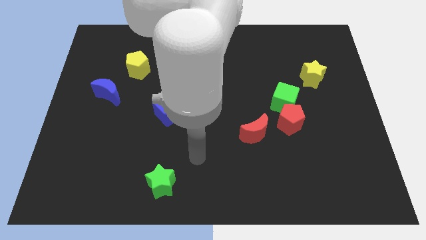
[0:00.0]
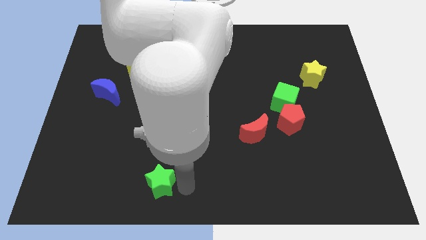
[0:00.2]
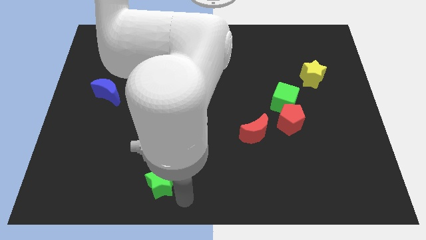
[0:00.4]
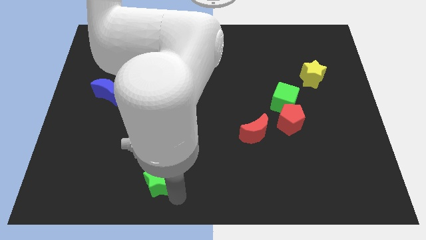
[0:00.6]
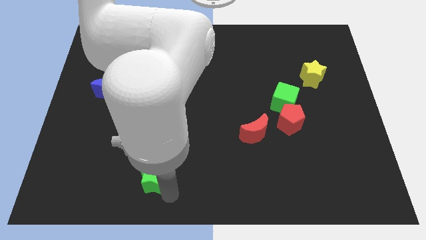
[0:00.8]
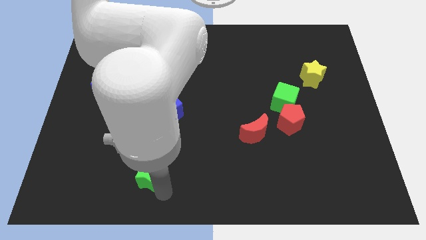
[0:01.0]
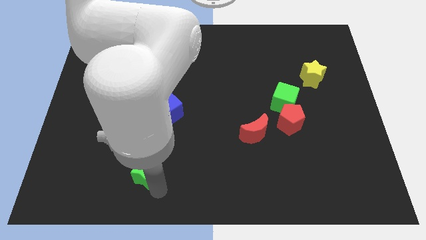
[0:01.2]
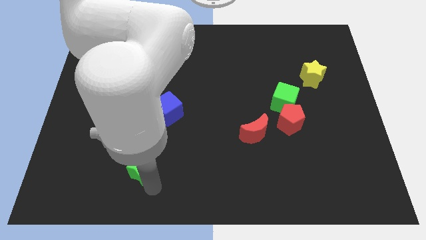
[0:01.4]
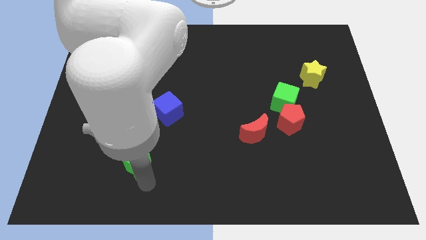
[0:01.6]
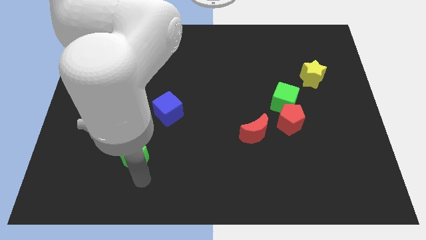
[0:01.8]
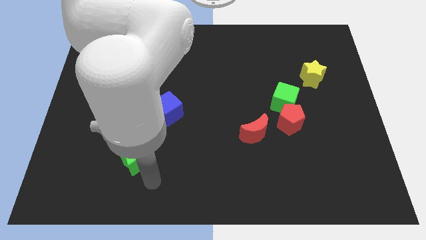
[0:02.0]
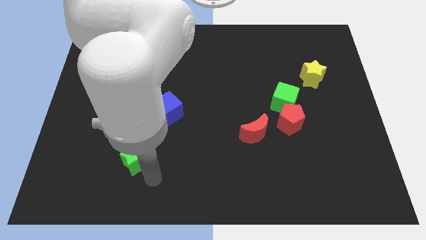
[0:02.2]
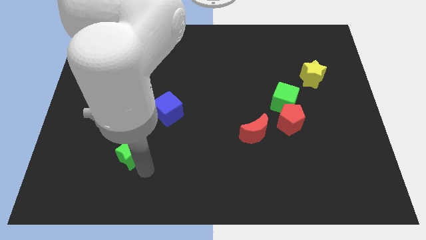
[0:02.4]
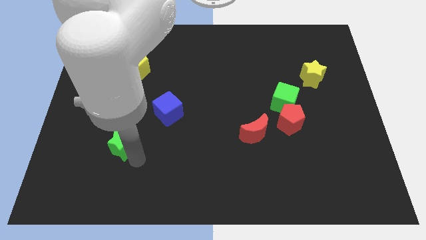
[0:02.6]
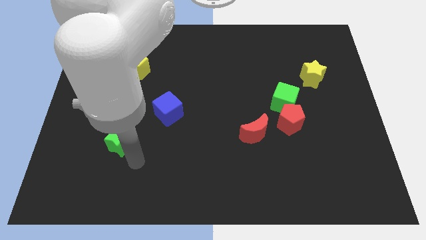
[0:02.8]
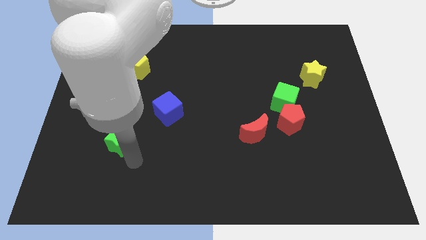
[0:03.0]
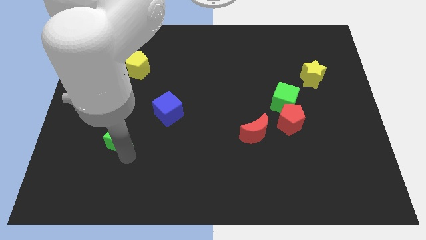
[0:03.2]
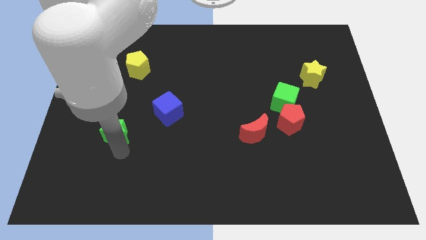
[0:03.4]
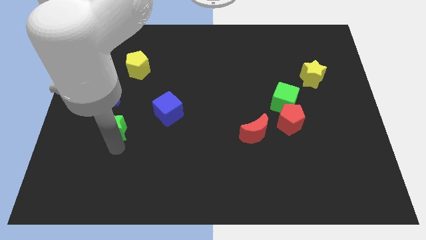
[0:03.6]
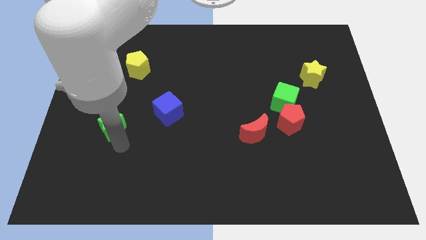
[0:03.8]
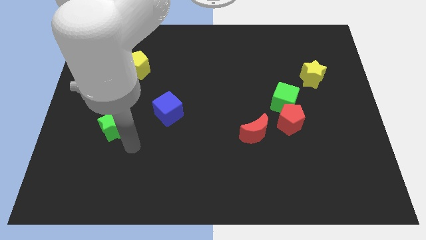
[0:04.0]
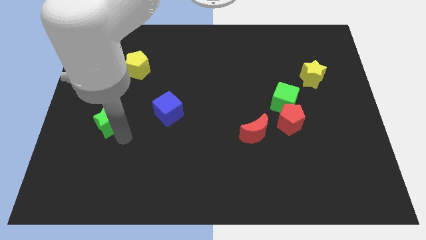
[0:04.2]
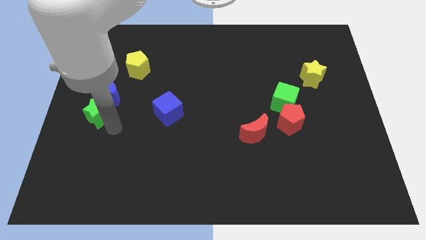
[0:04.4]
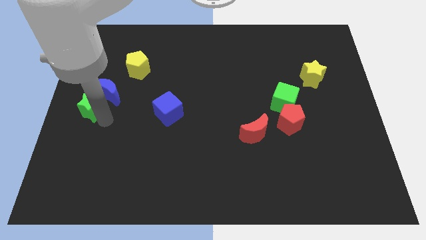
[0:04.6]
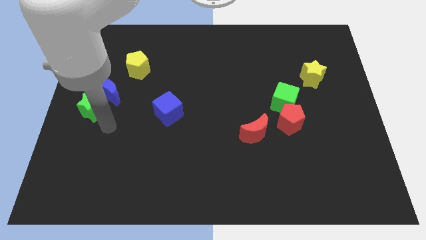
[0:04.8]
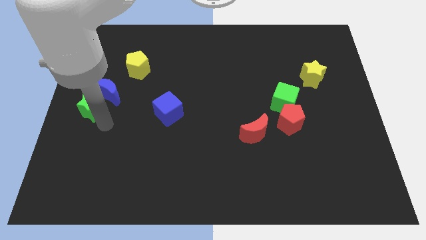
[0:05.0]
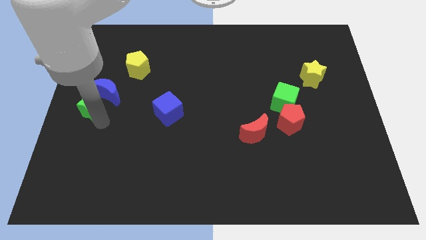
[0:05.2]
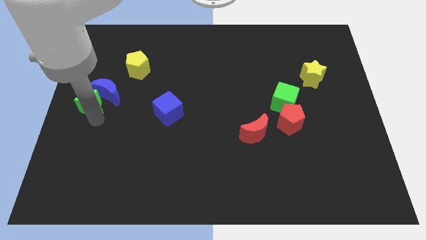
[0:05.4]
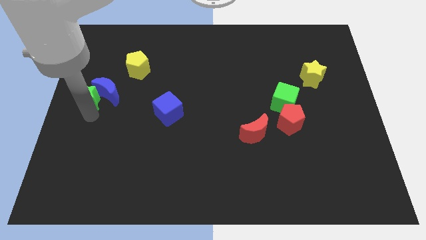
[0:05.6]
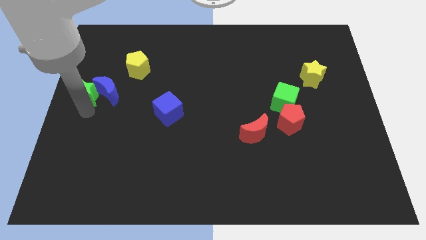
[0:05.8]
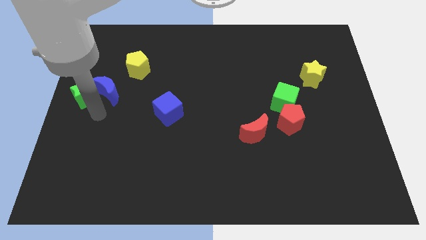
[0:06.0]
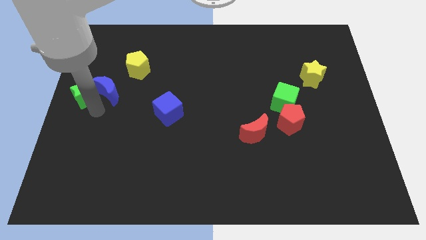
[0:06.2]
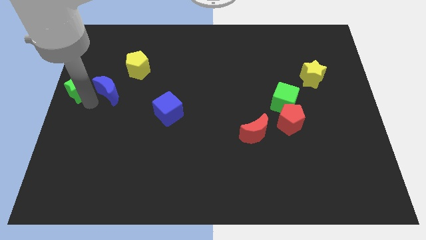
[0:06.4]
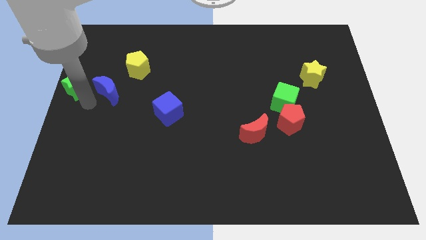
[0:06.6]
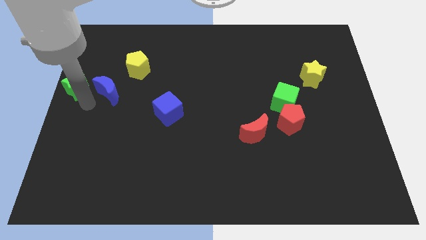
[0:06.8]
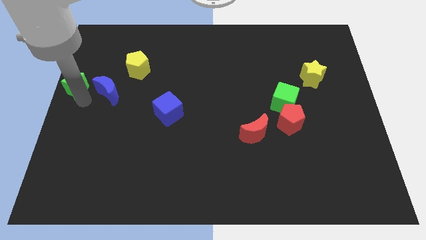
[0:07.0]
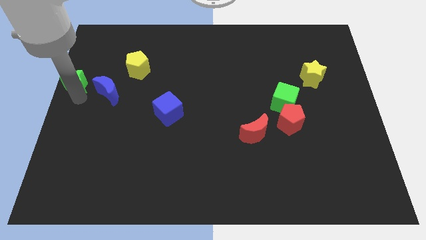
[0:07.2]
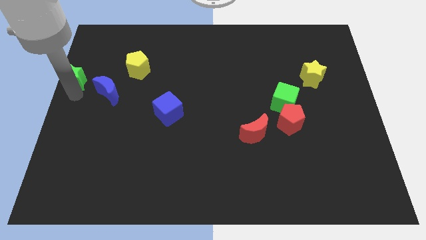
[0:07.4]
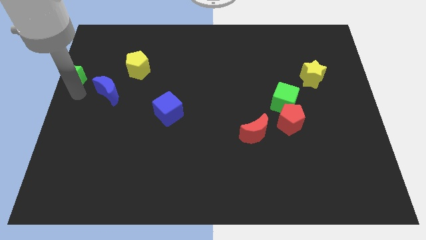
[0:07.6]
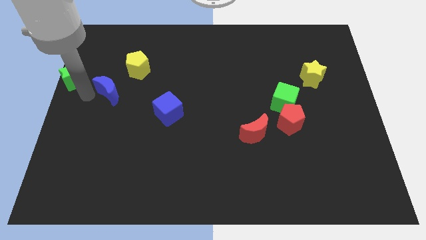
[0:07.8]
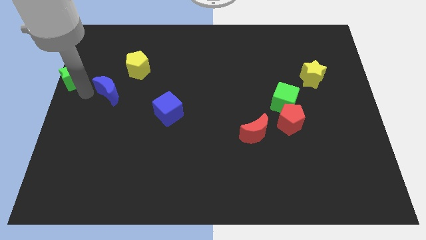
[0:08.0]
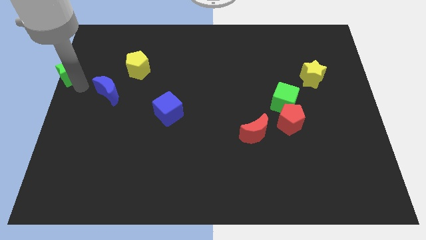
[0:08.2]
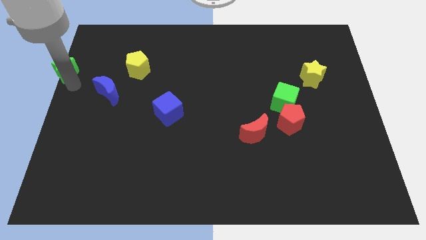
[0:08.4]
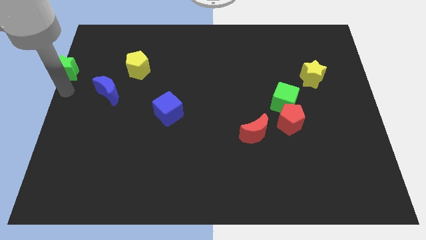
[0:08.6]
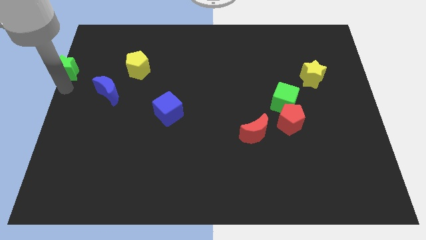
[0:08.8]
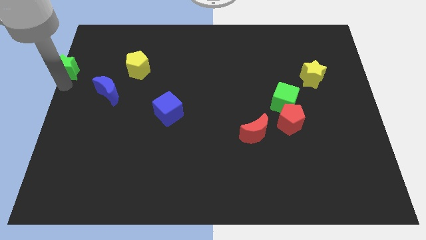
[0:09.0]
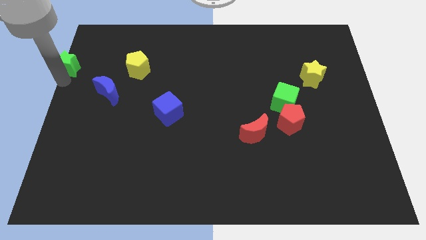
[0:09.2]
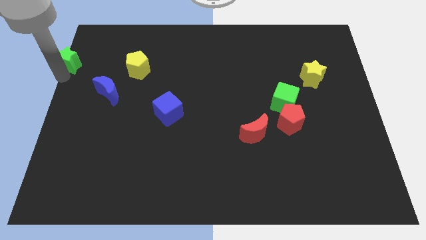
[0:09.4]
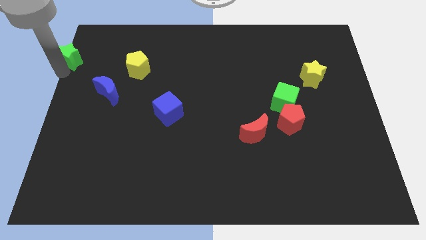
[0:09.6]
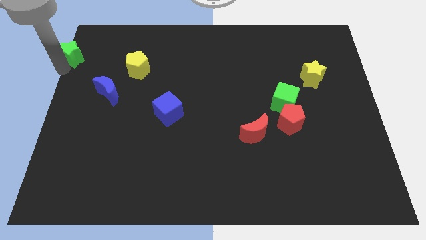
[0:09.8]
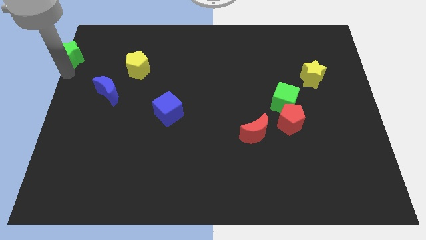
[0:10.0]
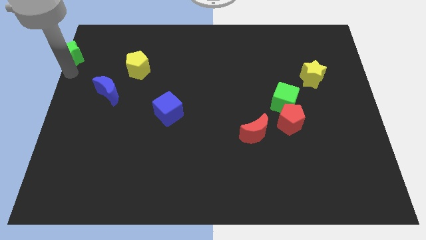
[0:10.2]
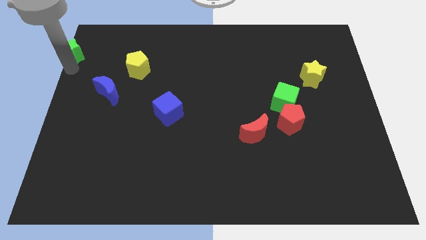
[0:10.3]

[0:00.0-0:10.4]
slide the green star to the top left of the board

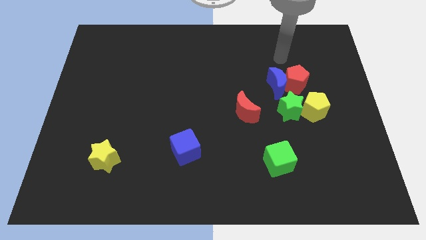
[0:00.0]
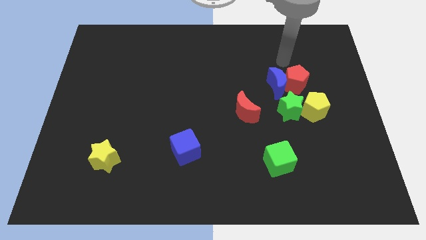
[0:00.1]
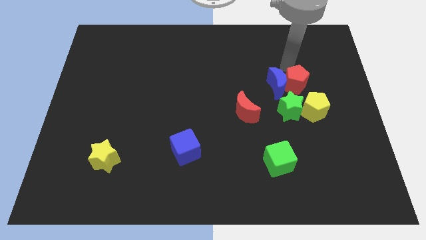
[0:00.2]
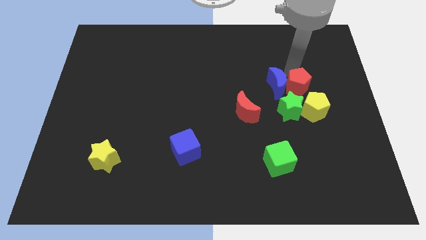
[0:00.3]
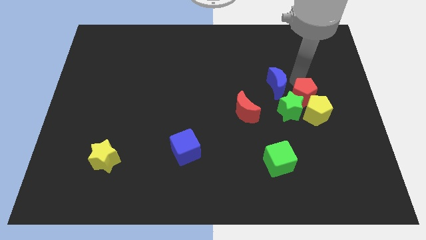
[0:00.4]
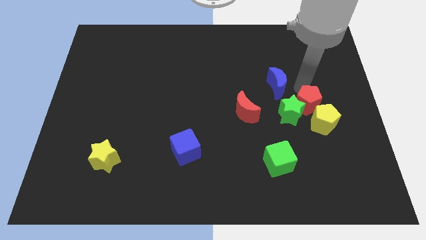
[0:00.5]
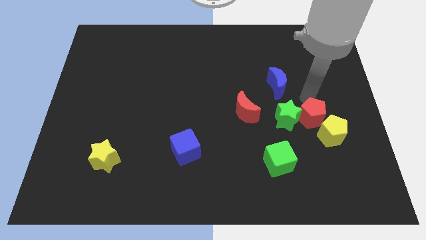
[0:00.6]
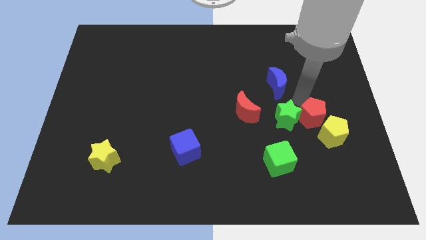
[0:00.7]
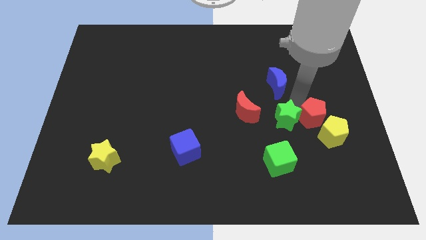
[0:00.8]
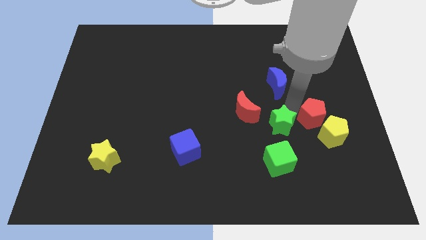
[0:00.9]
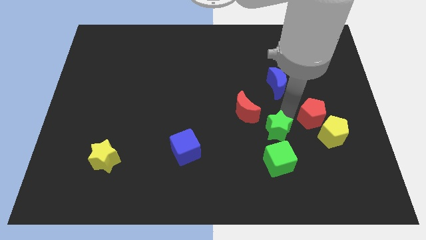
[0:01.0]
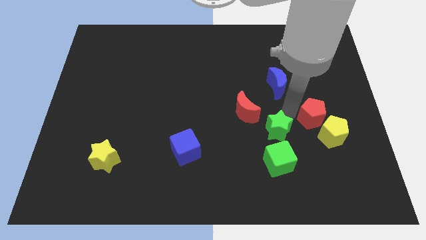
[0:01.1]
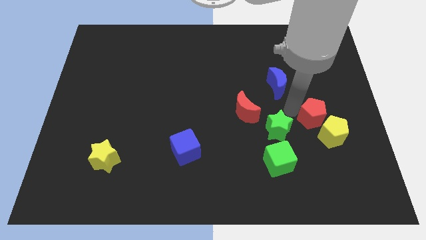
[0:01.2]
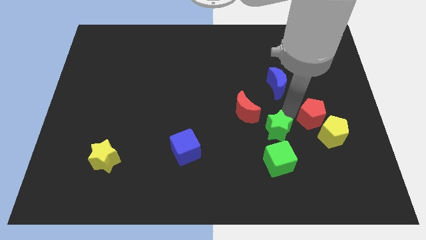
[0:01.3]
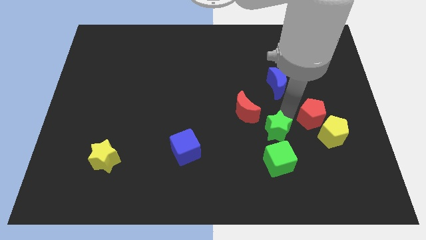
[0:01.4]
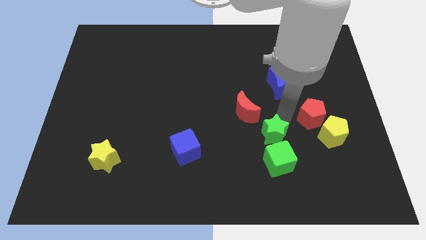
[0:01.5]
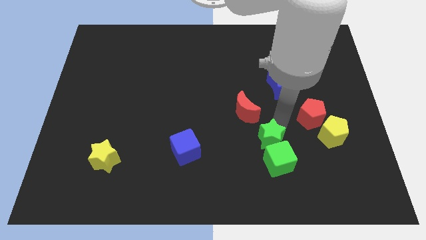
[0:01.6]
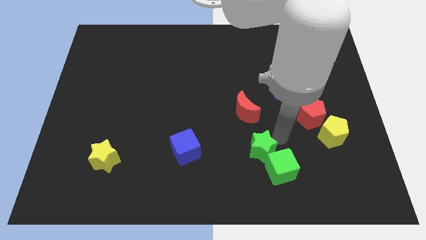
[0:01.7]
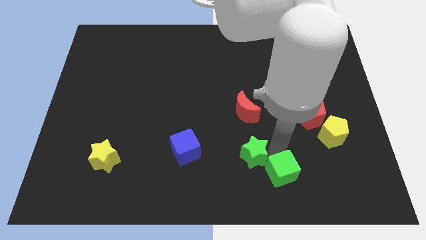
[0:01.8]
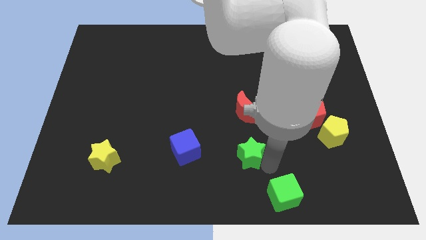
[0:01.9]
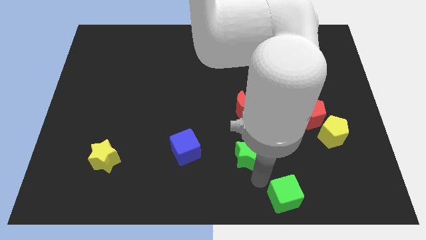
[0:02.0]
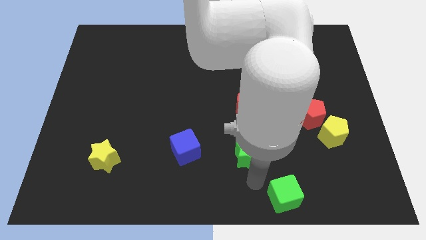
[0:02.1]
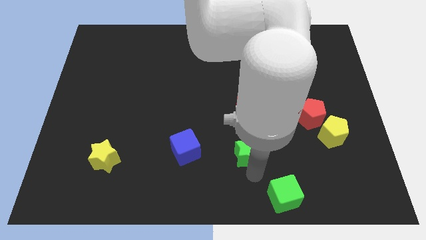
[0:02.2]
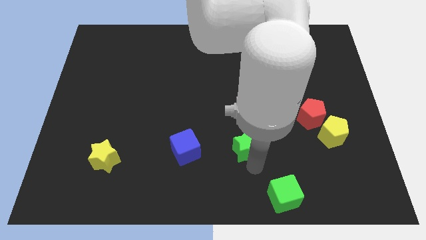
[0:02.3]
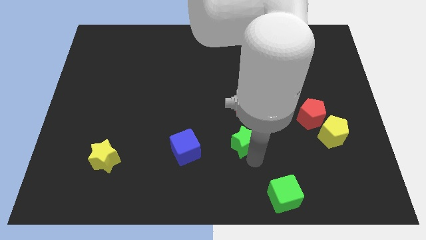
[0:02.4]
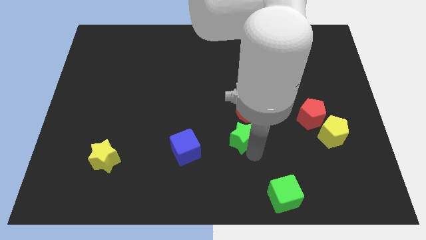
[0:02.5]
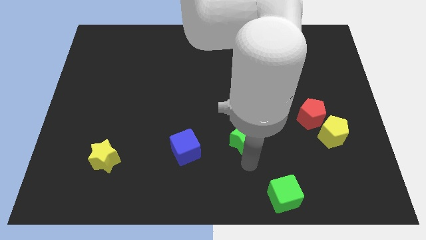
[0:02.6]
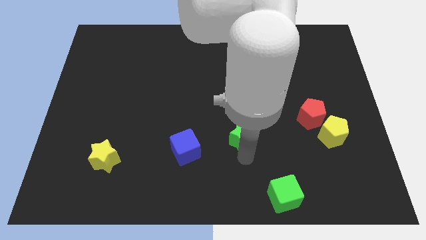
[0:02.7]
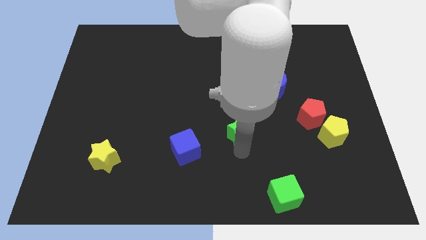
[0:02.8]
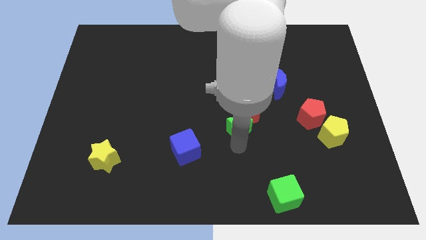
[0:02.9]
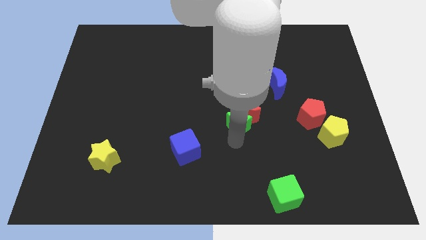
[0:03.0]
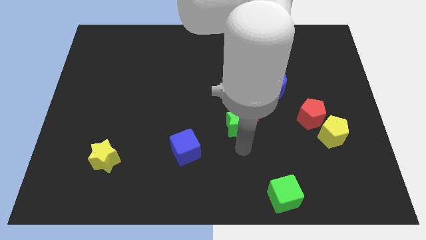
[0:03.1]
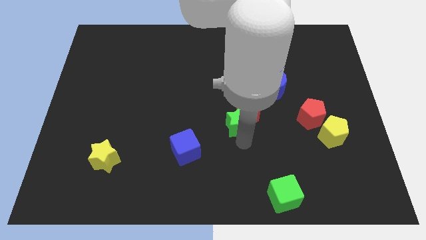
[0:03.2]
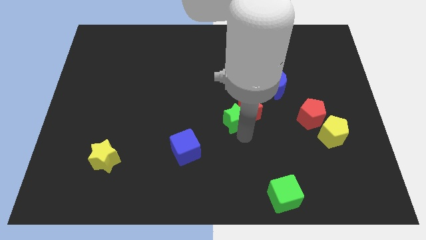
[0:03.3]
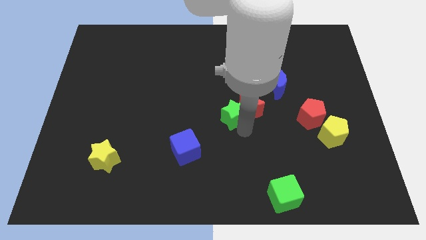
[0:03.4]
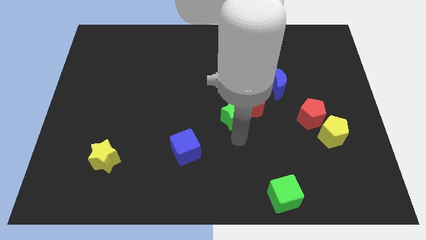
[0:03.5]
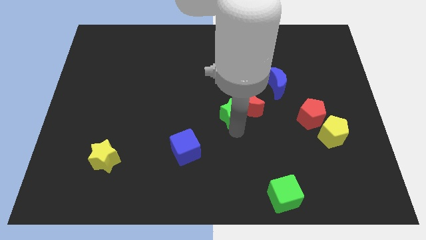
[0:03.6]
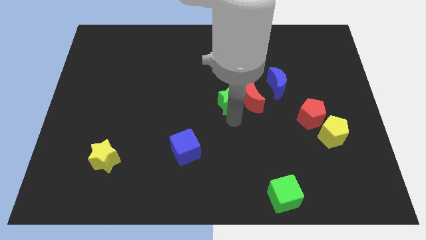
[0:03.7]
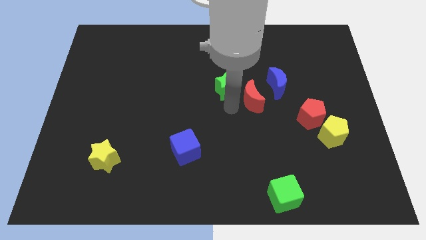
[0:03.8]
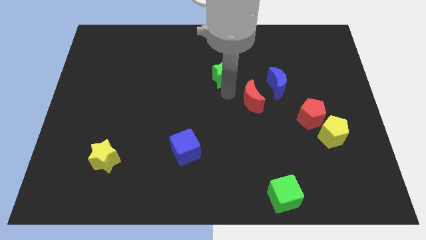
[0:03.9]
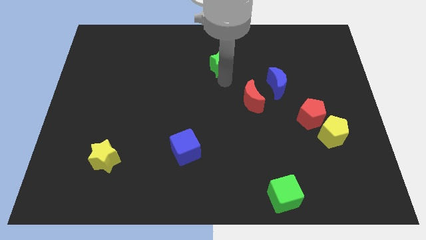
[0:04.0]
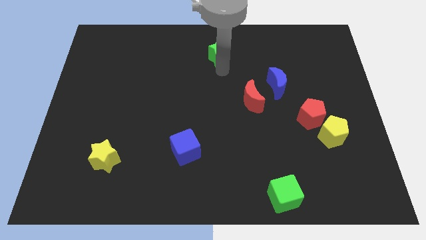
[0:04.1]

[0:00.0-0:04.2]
push the green star to the towards your base
